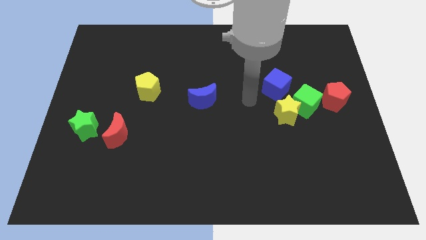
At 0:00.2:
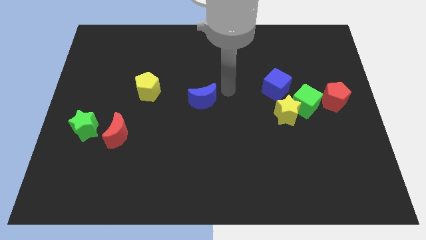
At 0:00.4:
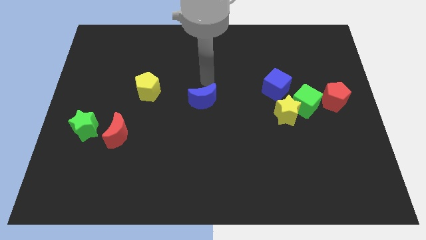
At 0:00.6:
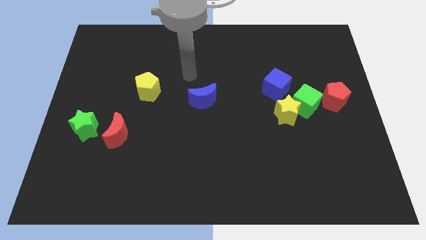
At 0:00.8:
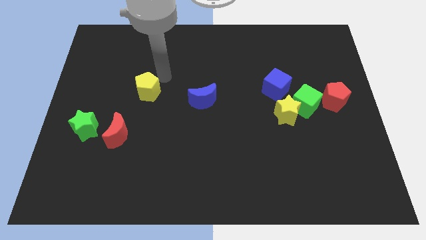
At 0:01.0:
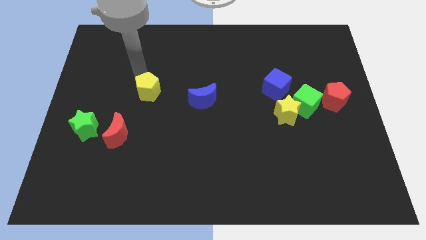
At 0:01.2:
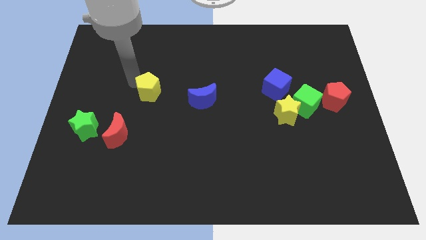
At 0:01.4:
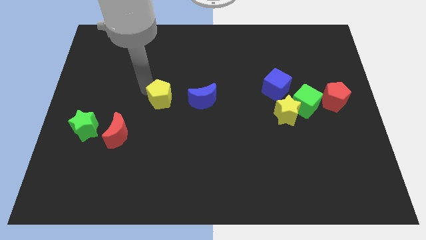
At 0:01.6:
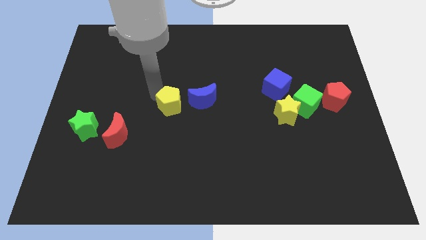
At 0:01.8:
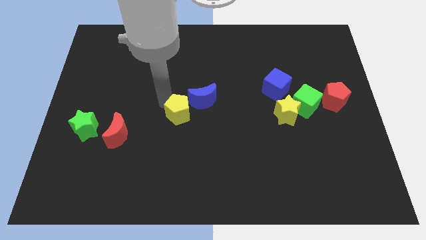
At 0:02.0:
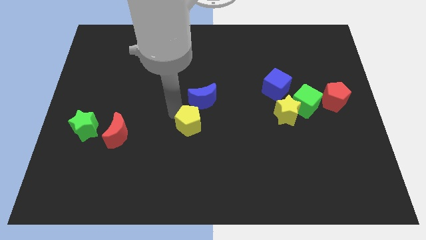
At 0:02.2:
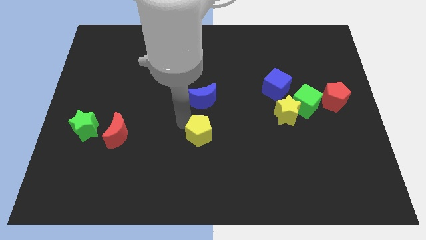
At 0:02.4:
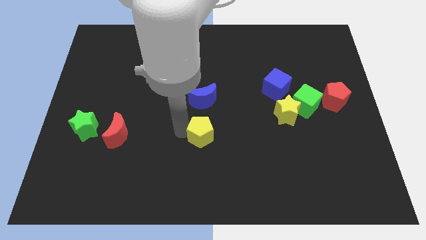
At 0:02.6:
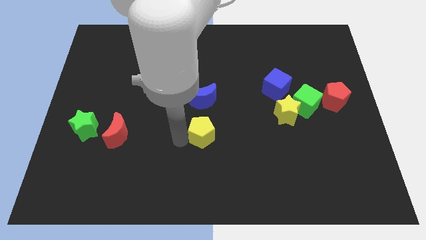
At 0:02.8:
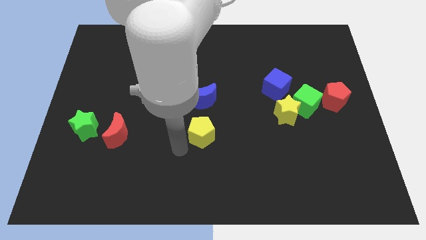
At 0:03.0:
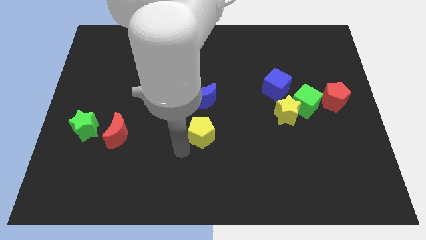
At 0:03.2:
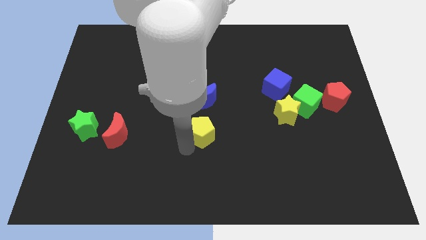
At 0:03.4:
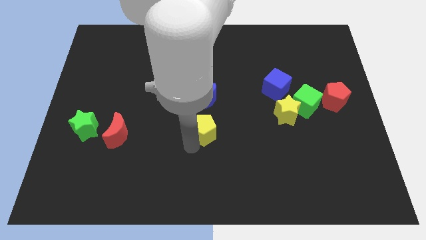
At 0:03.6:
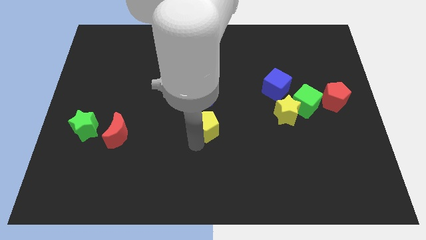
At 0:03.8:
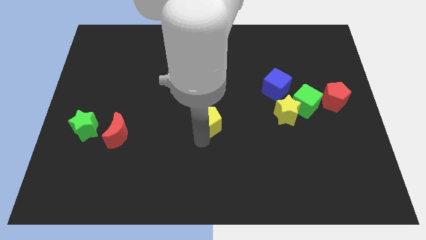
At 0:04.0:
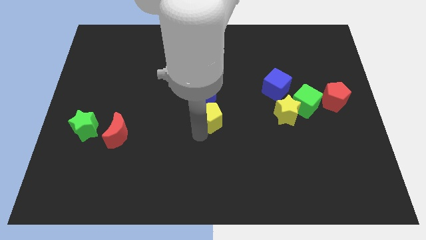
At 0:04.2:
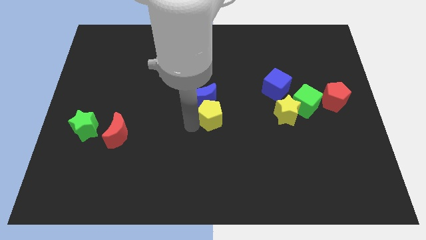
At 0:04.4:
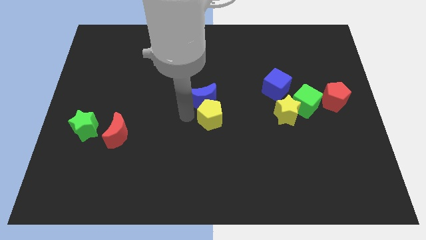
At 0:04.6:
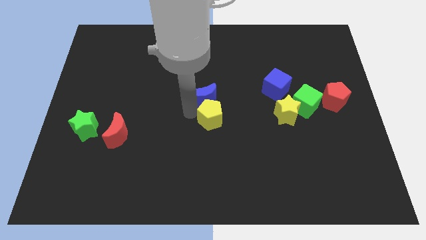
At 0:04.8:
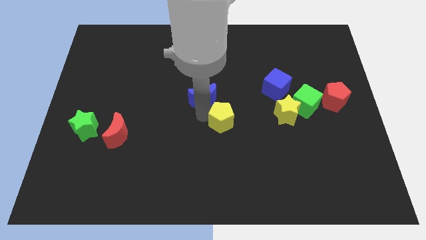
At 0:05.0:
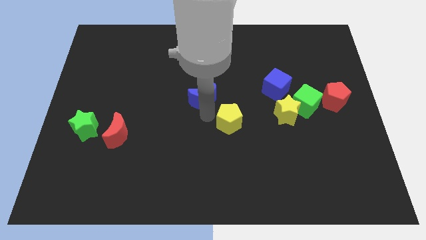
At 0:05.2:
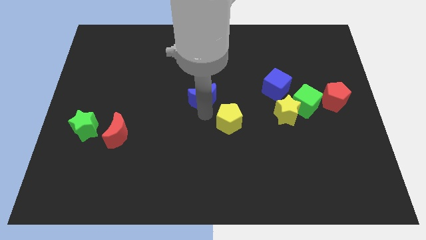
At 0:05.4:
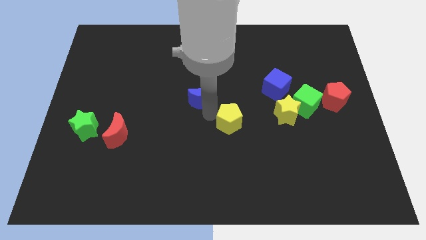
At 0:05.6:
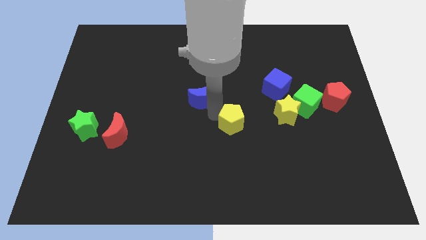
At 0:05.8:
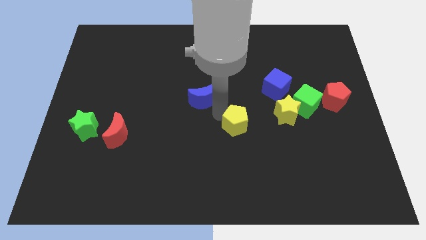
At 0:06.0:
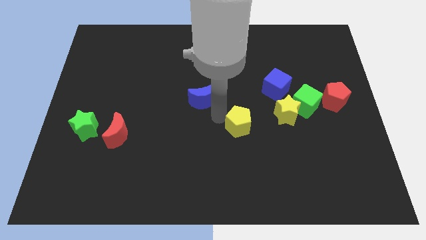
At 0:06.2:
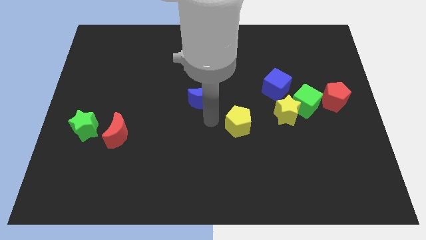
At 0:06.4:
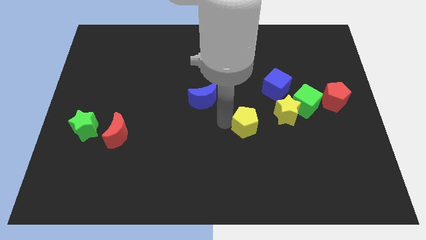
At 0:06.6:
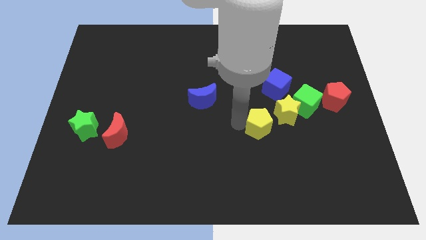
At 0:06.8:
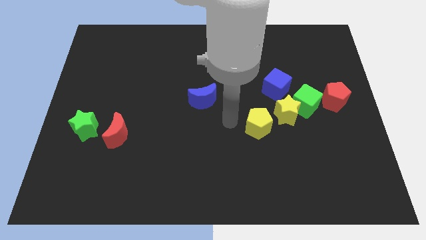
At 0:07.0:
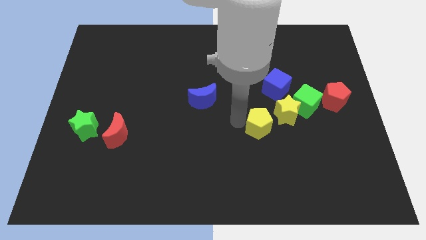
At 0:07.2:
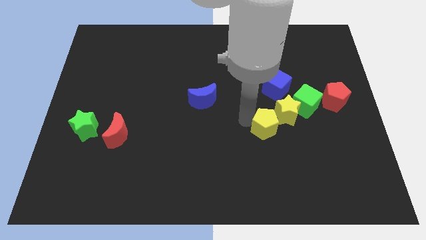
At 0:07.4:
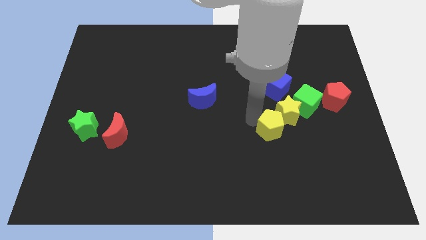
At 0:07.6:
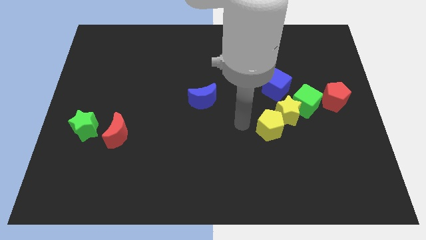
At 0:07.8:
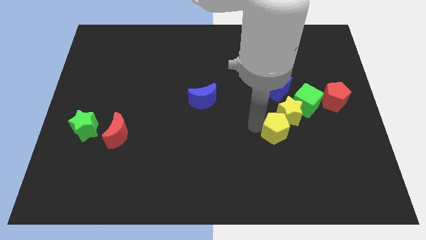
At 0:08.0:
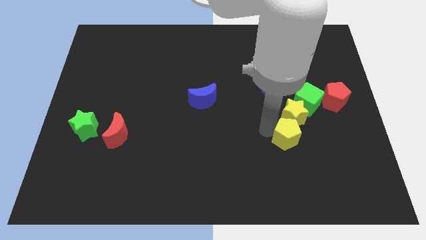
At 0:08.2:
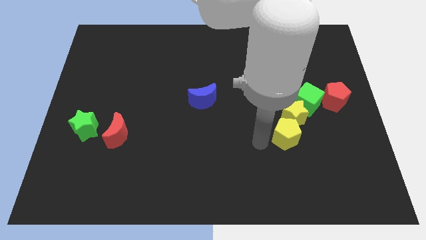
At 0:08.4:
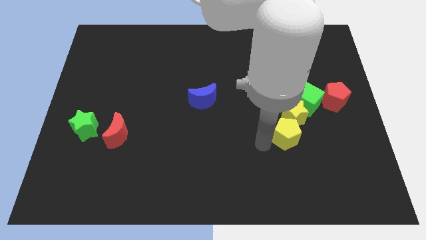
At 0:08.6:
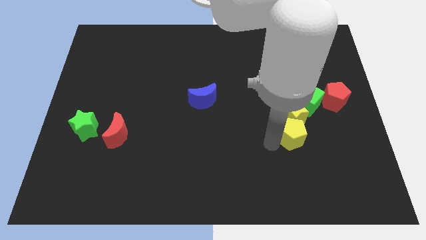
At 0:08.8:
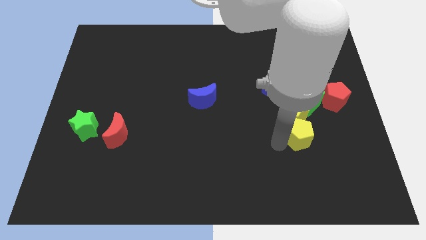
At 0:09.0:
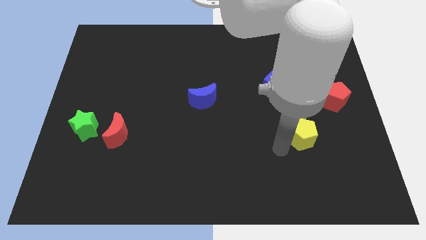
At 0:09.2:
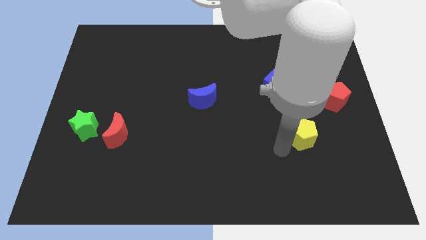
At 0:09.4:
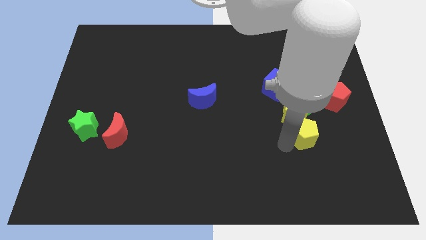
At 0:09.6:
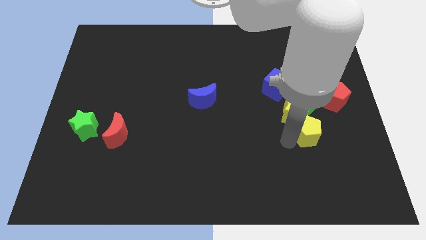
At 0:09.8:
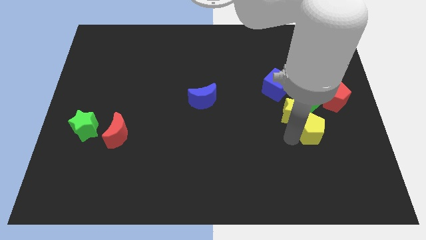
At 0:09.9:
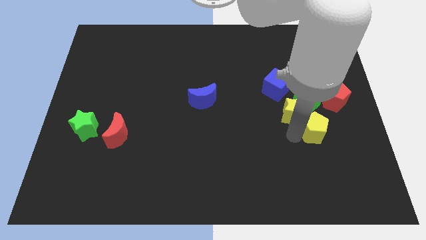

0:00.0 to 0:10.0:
put the yellow pentagon to the right of the yellow star

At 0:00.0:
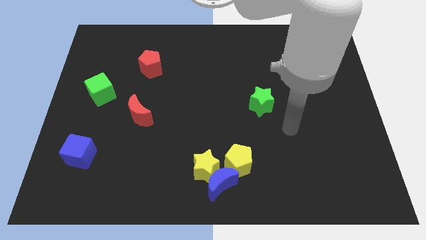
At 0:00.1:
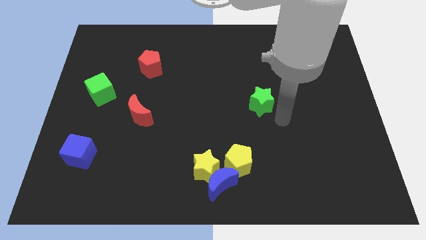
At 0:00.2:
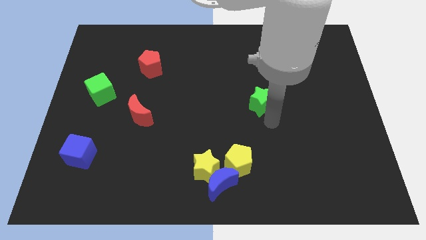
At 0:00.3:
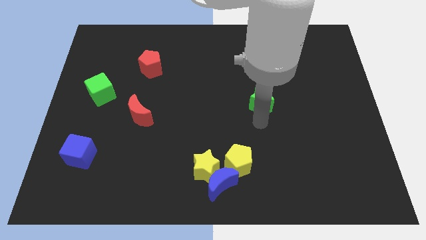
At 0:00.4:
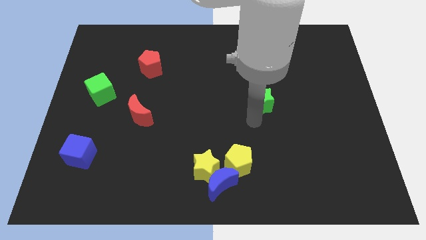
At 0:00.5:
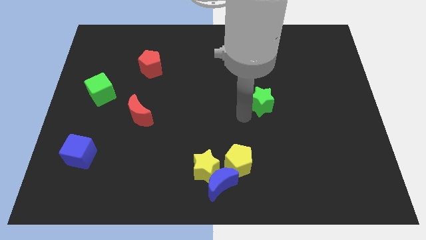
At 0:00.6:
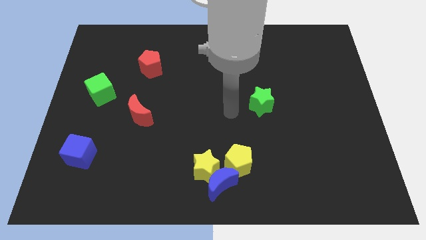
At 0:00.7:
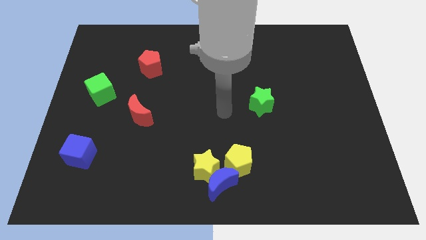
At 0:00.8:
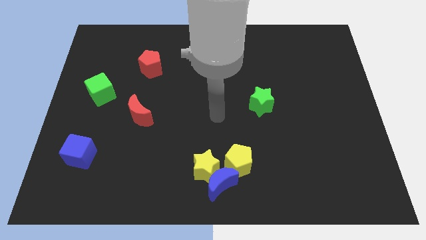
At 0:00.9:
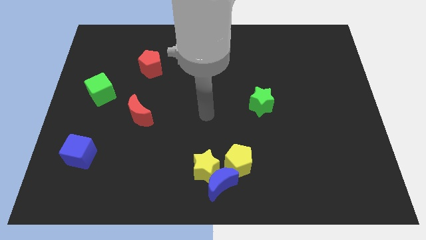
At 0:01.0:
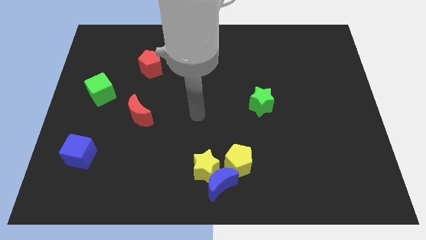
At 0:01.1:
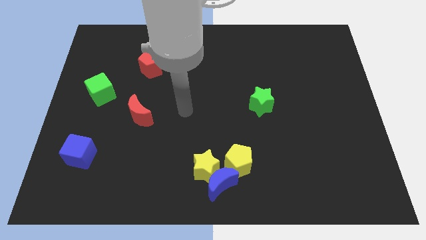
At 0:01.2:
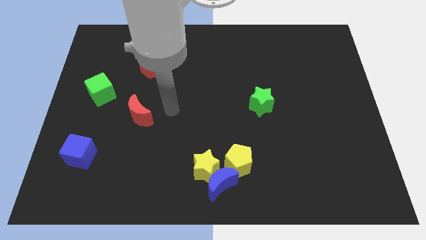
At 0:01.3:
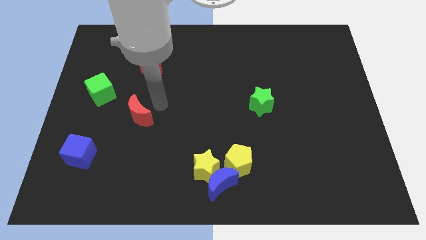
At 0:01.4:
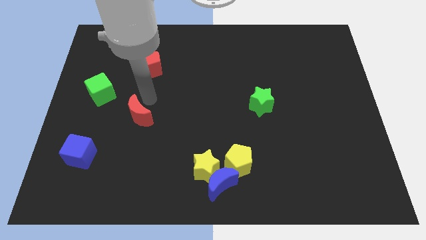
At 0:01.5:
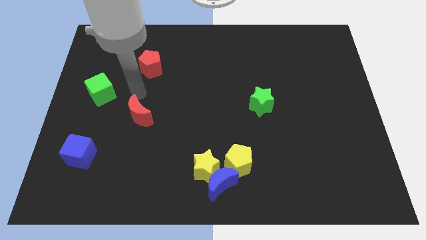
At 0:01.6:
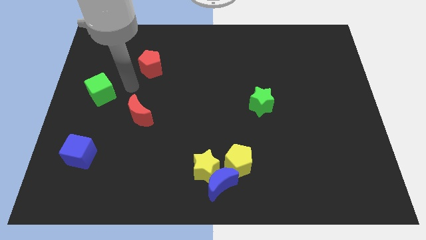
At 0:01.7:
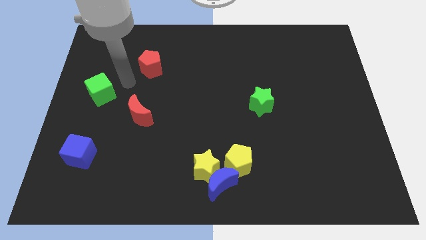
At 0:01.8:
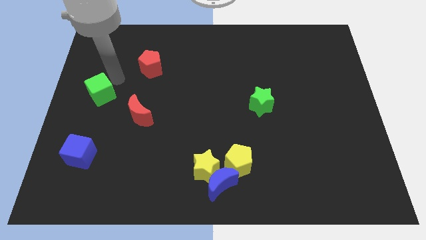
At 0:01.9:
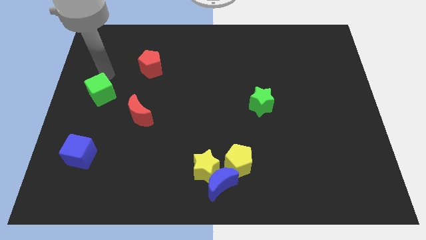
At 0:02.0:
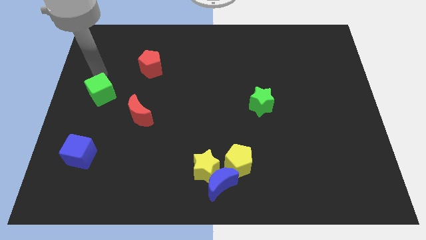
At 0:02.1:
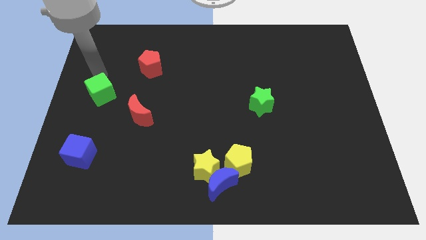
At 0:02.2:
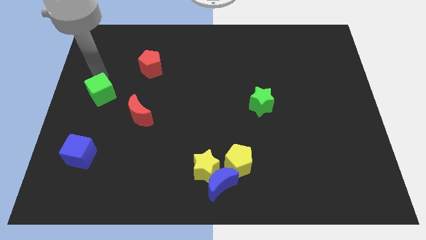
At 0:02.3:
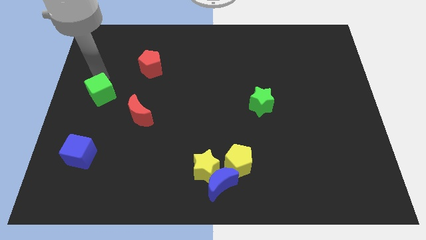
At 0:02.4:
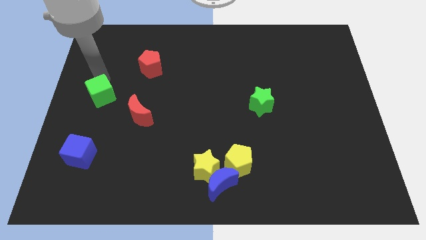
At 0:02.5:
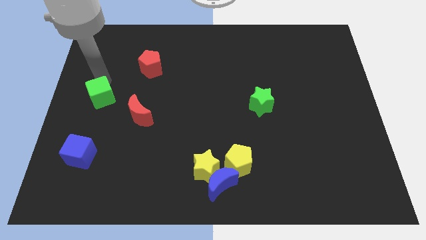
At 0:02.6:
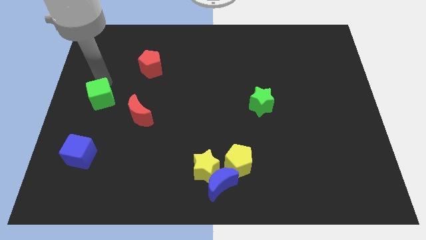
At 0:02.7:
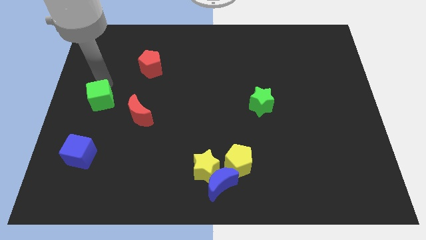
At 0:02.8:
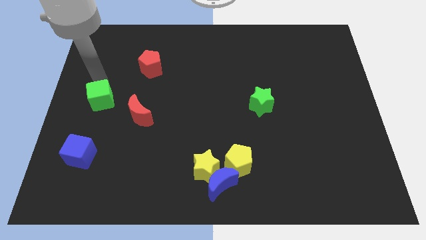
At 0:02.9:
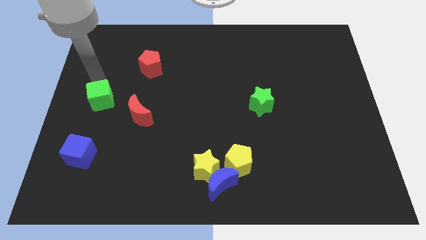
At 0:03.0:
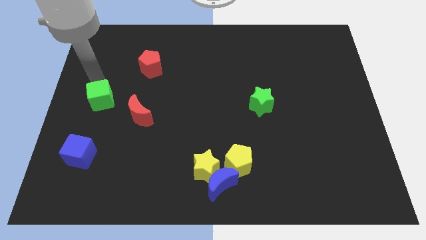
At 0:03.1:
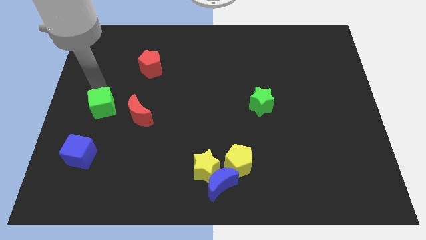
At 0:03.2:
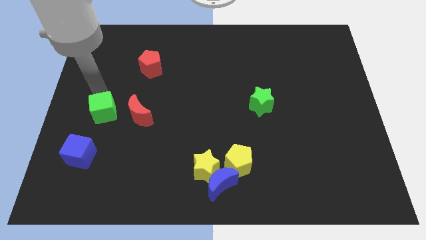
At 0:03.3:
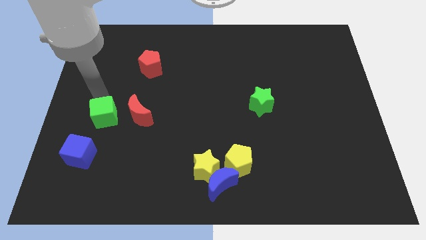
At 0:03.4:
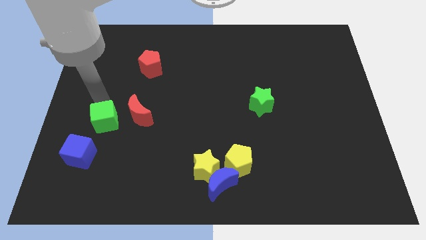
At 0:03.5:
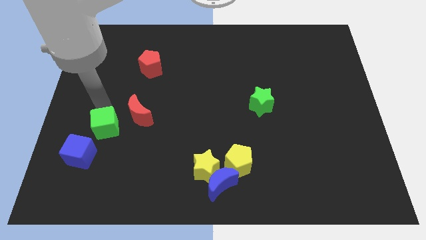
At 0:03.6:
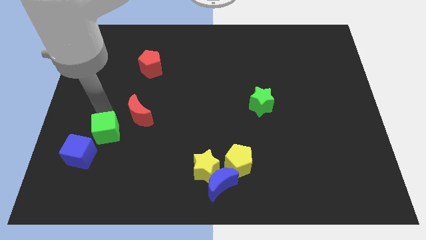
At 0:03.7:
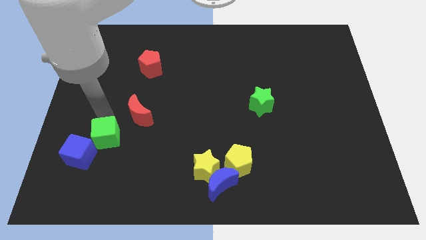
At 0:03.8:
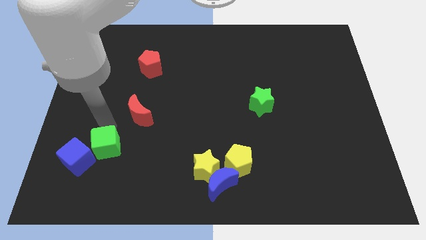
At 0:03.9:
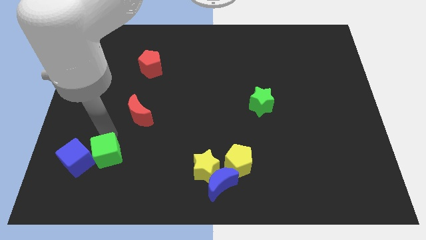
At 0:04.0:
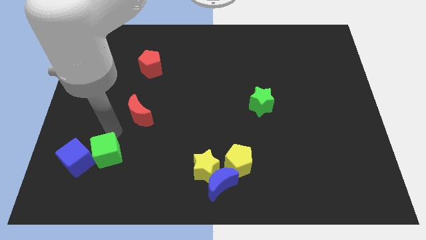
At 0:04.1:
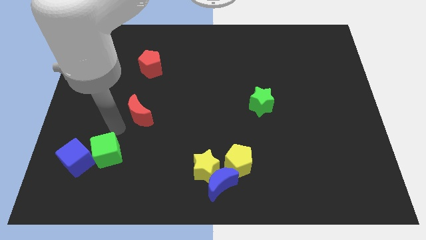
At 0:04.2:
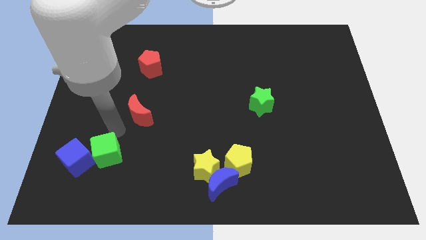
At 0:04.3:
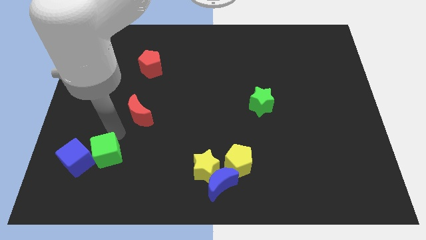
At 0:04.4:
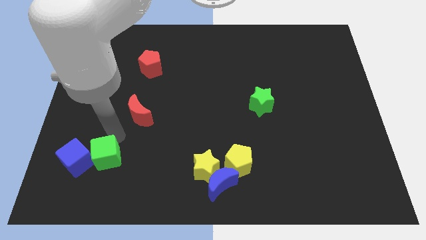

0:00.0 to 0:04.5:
put the green cube to the bottom right of the blue cube
